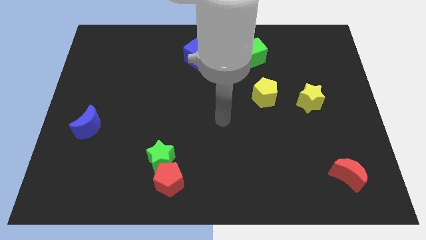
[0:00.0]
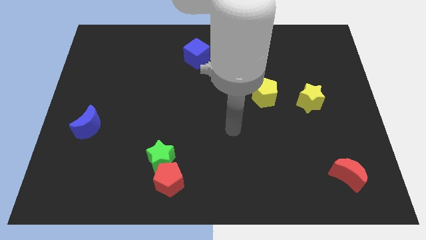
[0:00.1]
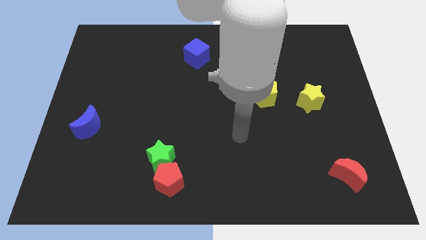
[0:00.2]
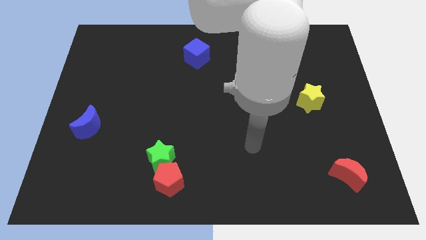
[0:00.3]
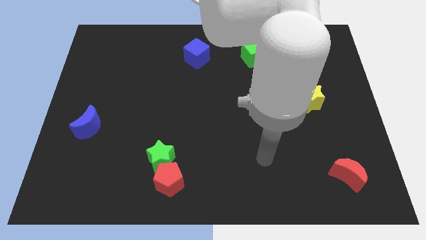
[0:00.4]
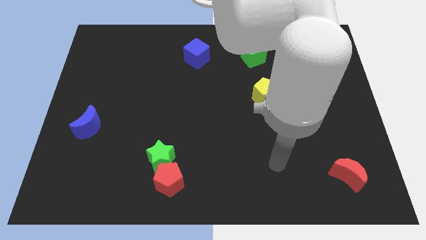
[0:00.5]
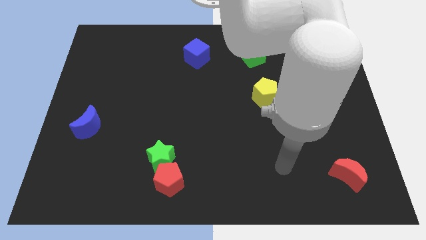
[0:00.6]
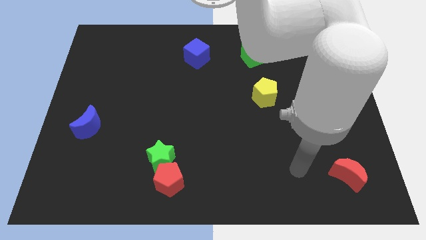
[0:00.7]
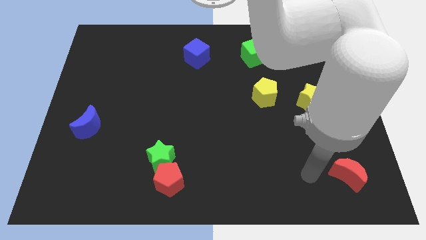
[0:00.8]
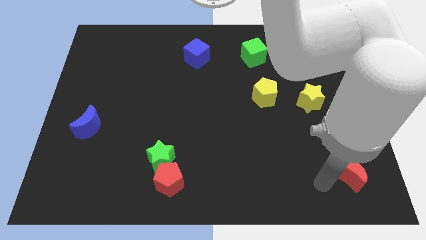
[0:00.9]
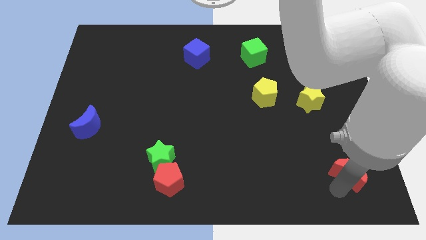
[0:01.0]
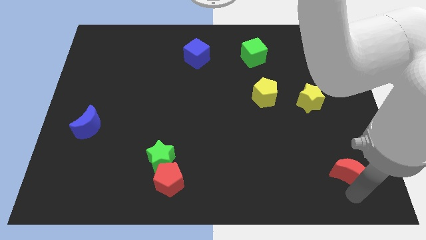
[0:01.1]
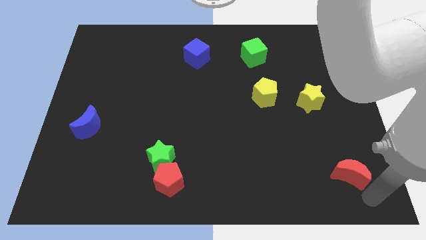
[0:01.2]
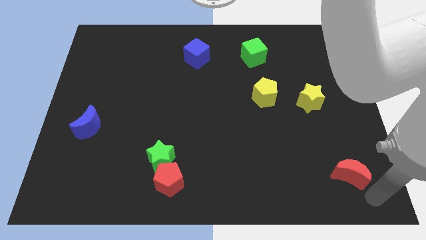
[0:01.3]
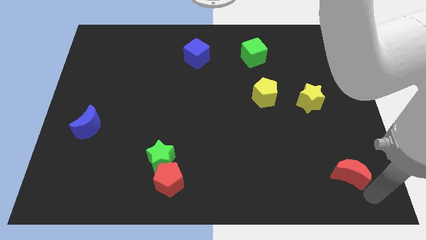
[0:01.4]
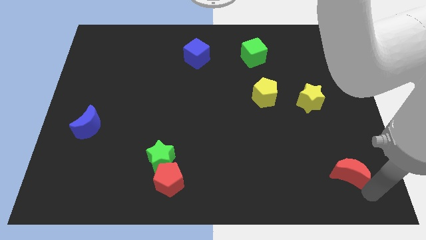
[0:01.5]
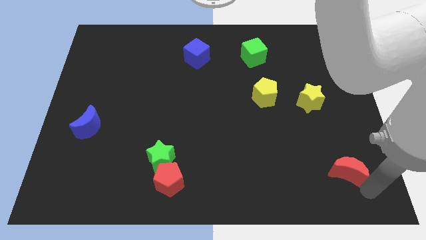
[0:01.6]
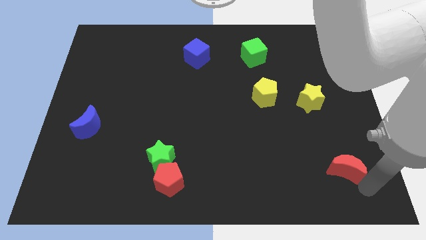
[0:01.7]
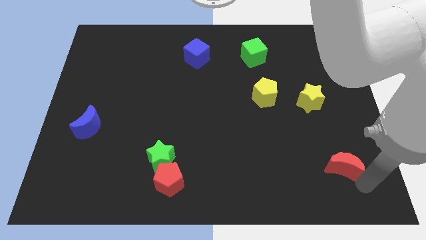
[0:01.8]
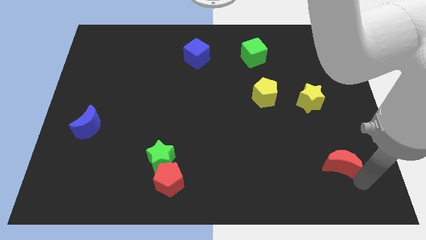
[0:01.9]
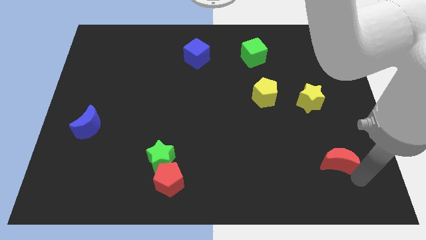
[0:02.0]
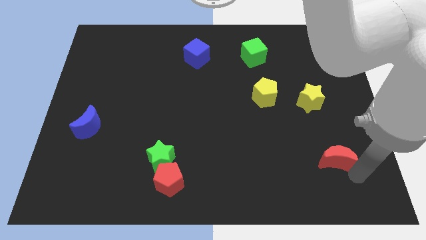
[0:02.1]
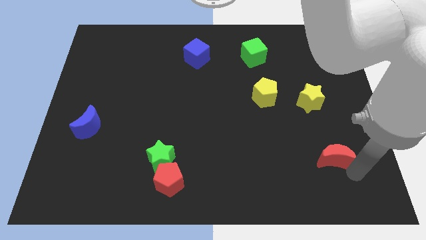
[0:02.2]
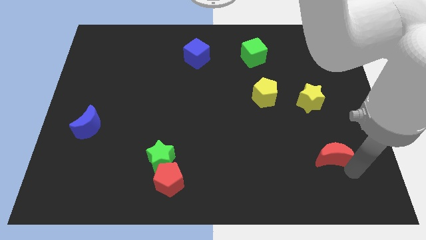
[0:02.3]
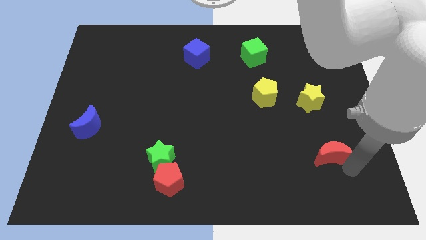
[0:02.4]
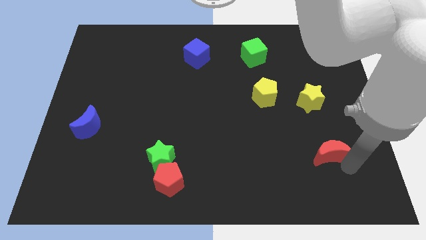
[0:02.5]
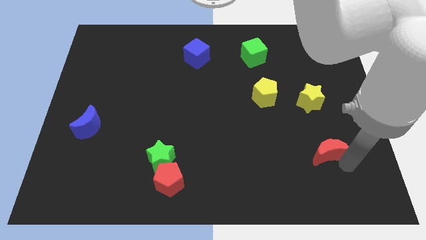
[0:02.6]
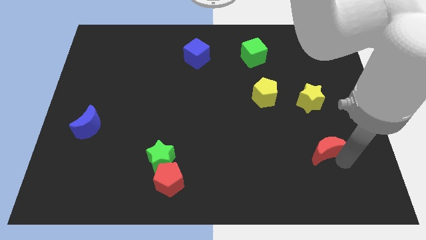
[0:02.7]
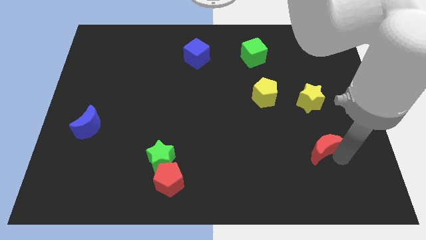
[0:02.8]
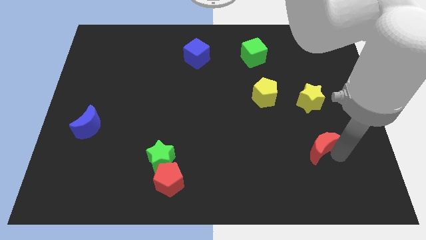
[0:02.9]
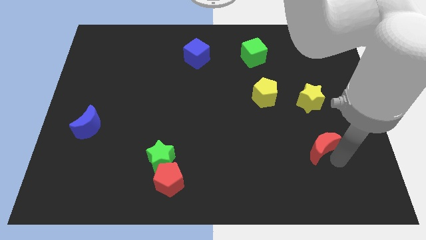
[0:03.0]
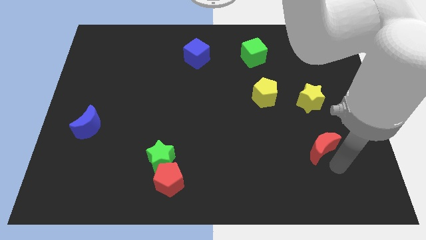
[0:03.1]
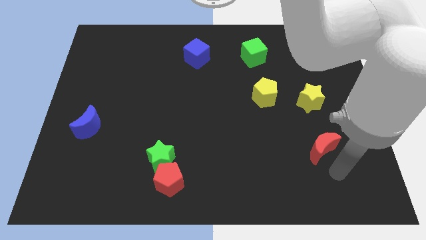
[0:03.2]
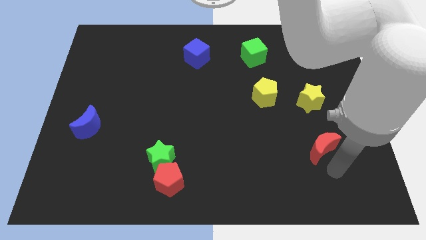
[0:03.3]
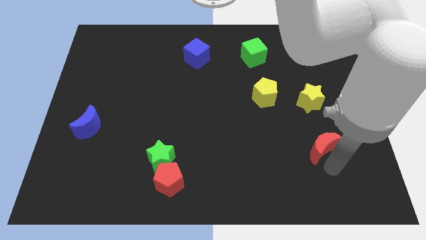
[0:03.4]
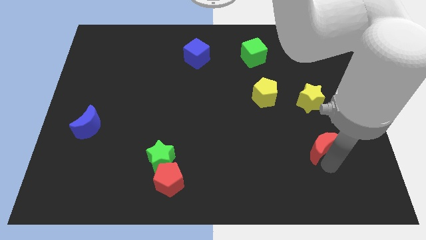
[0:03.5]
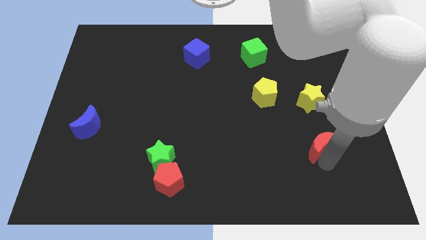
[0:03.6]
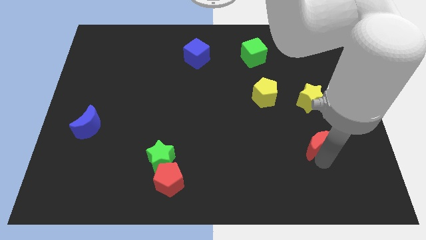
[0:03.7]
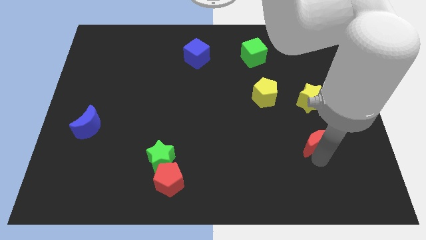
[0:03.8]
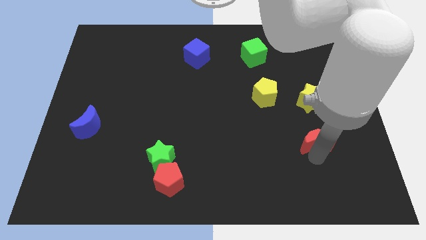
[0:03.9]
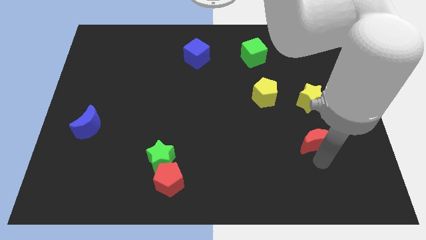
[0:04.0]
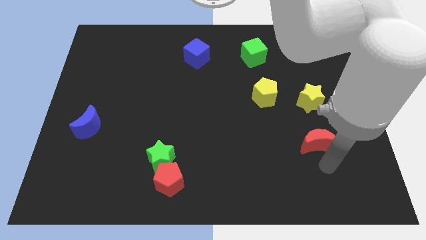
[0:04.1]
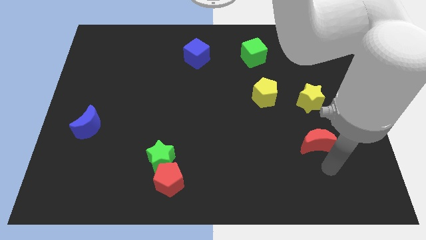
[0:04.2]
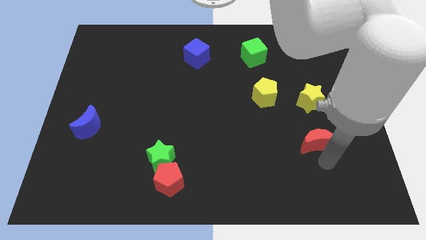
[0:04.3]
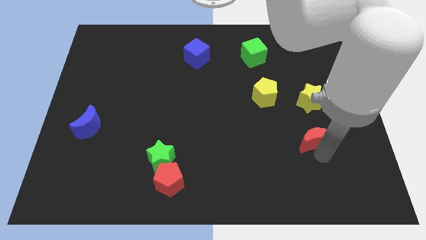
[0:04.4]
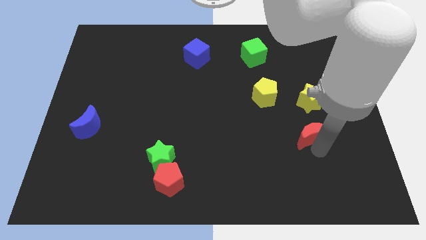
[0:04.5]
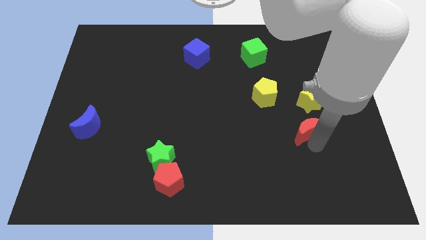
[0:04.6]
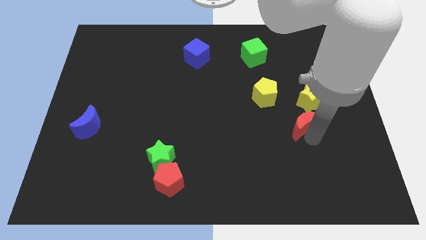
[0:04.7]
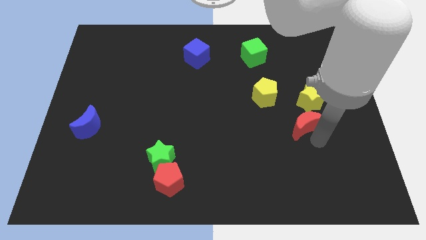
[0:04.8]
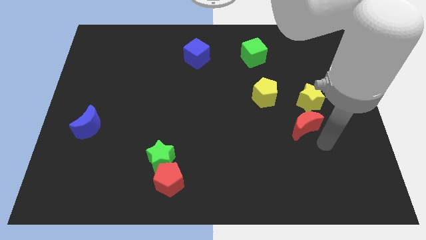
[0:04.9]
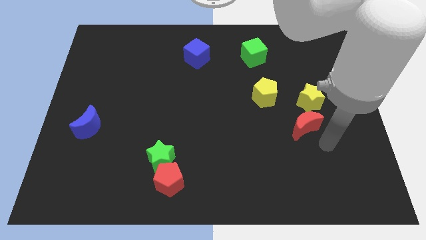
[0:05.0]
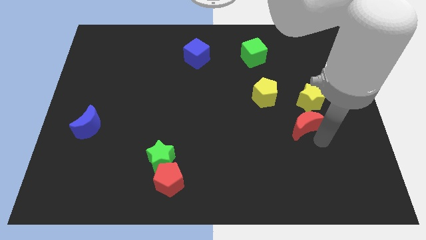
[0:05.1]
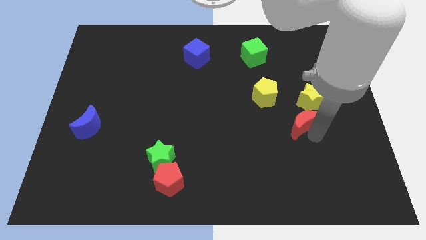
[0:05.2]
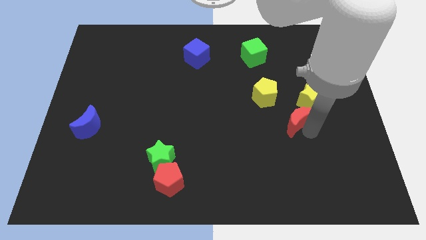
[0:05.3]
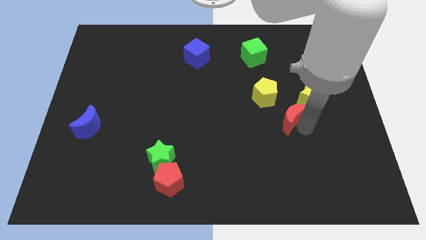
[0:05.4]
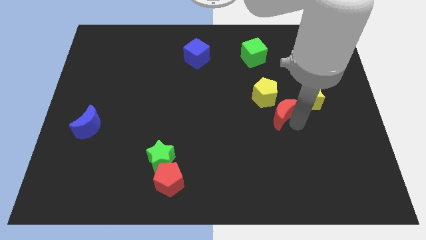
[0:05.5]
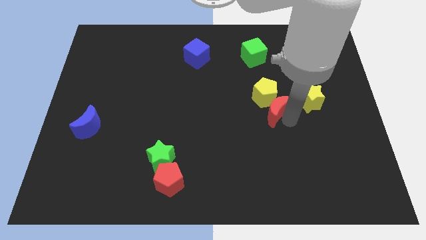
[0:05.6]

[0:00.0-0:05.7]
put the red moon towards the yellow pentagon

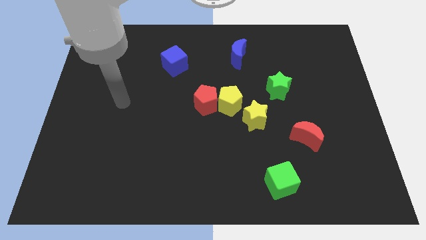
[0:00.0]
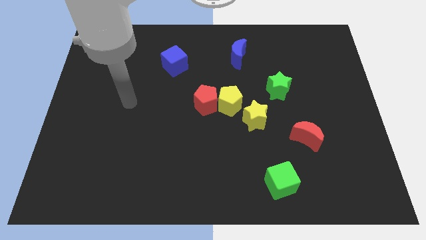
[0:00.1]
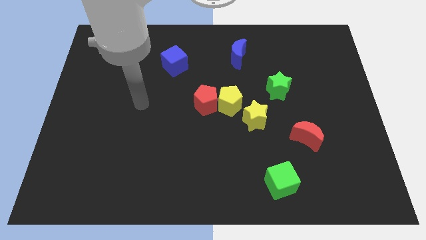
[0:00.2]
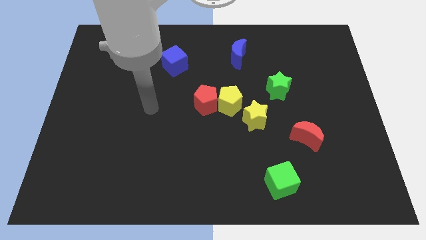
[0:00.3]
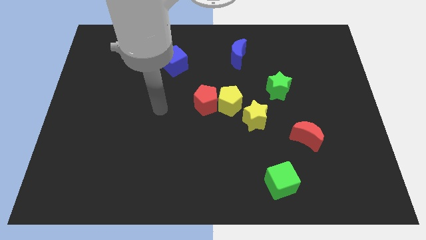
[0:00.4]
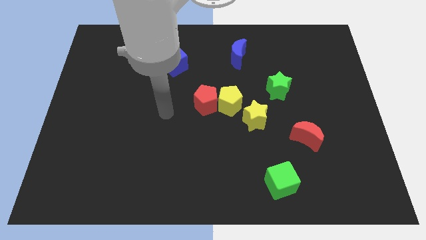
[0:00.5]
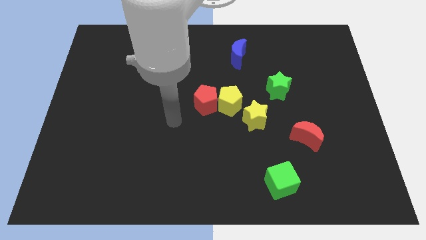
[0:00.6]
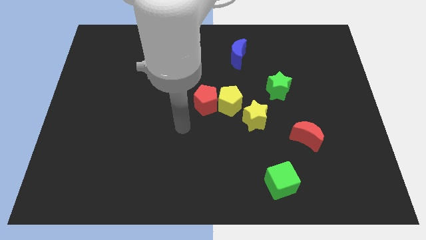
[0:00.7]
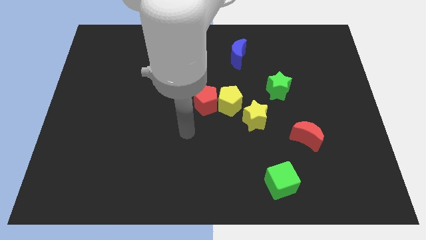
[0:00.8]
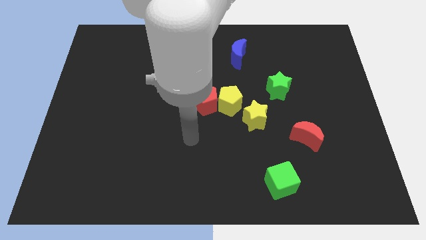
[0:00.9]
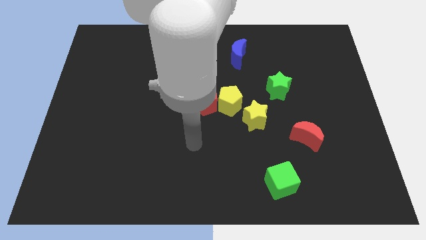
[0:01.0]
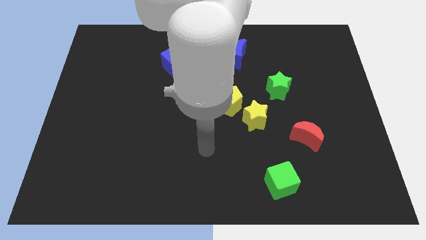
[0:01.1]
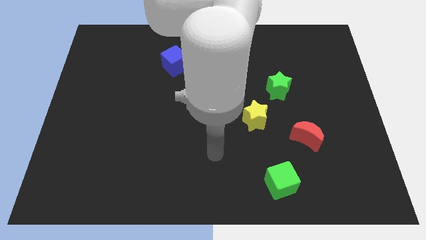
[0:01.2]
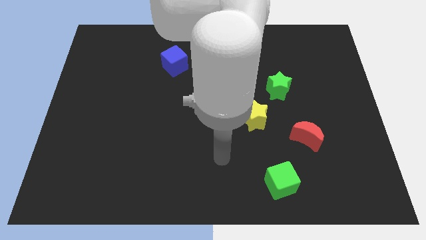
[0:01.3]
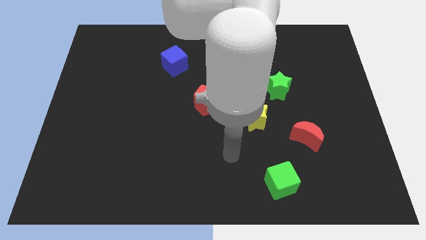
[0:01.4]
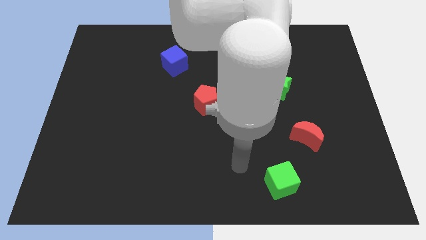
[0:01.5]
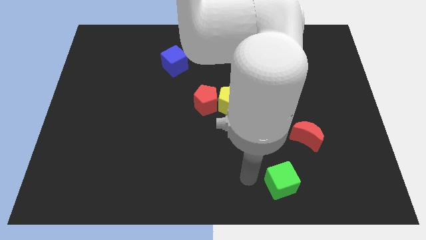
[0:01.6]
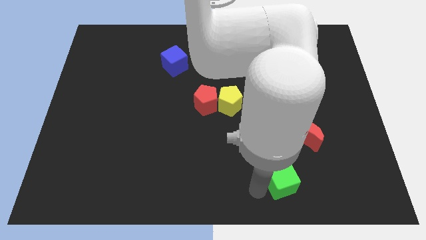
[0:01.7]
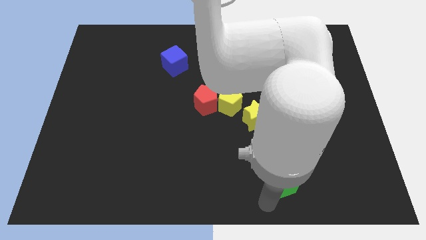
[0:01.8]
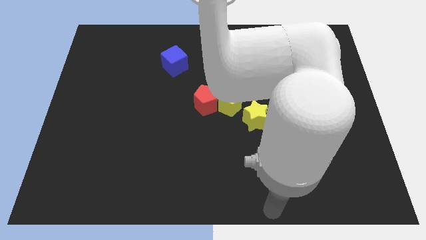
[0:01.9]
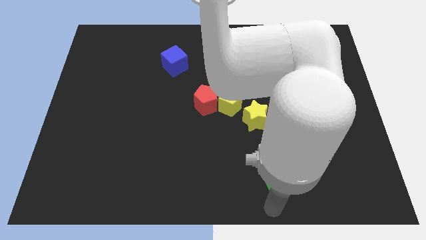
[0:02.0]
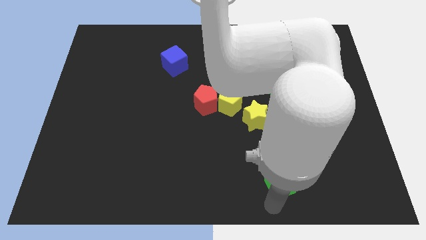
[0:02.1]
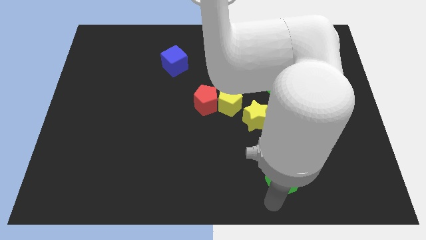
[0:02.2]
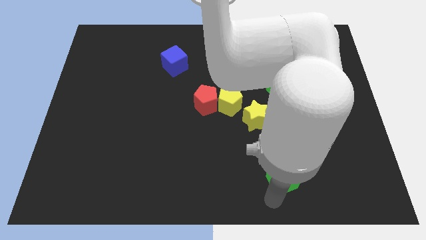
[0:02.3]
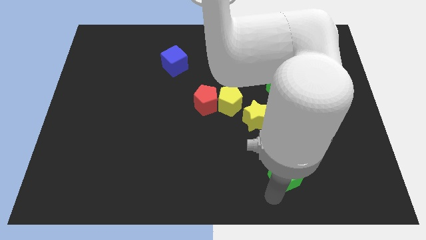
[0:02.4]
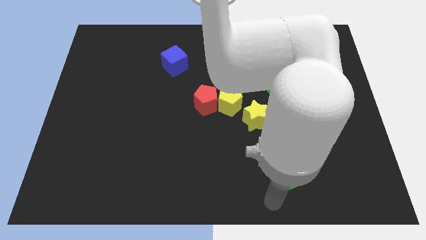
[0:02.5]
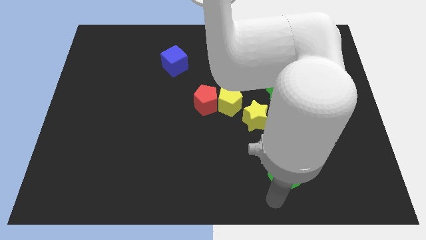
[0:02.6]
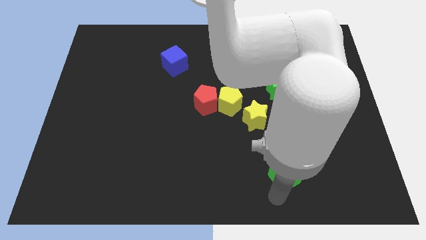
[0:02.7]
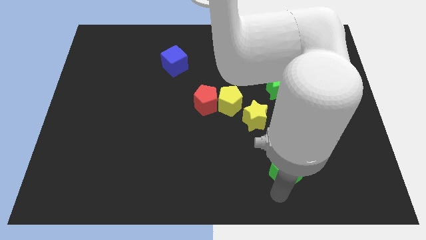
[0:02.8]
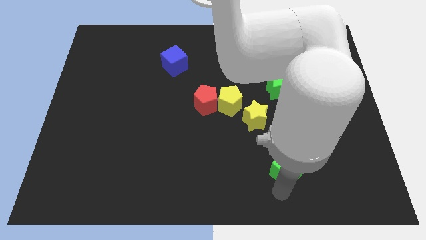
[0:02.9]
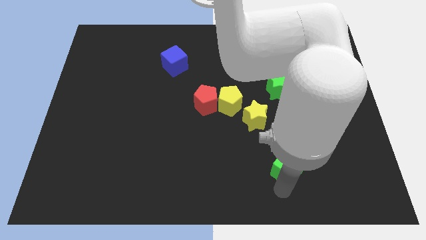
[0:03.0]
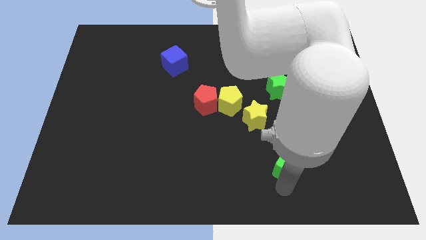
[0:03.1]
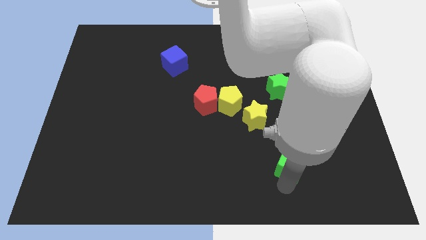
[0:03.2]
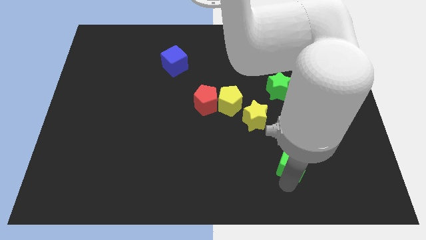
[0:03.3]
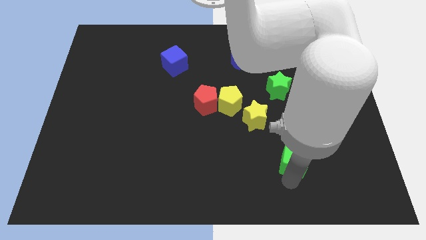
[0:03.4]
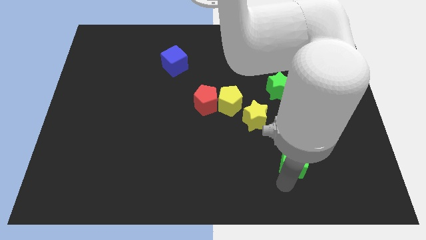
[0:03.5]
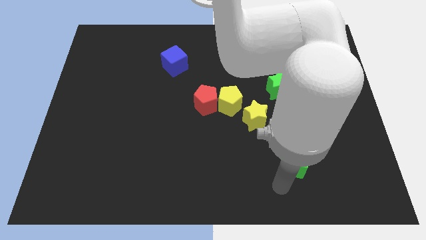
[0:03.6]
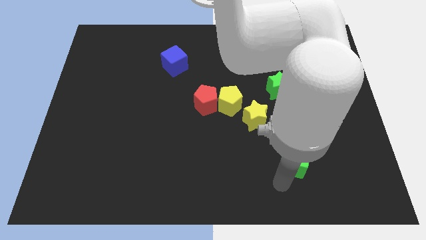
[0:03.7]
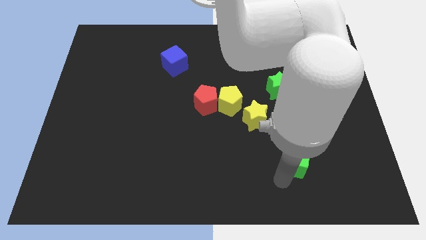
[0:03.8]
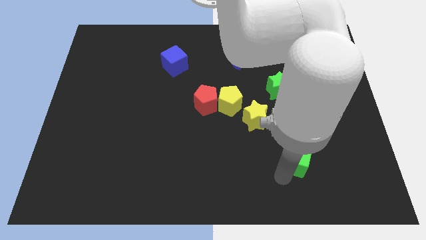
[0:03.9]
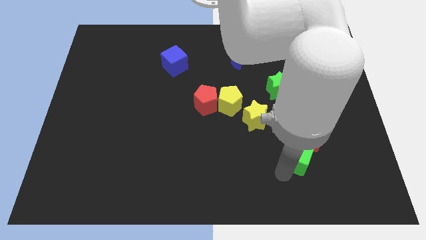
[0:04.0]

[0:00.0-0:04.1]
move the green cube next to the red moon
